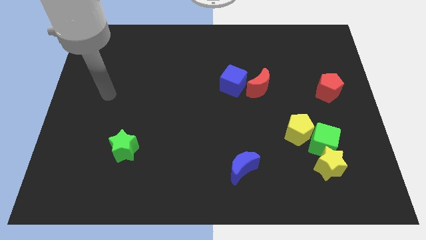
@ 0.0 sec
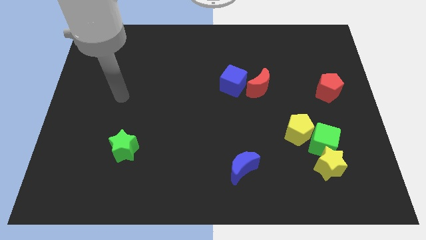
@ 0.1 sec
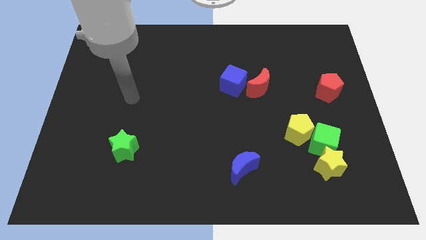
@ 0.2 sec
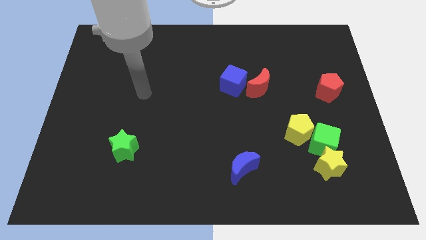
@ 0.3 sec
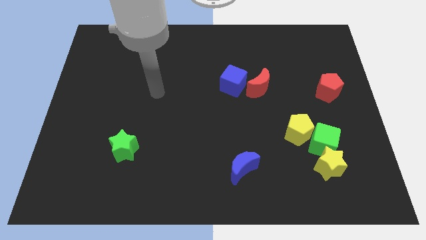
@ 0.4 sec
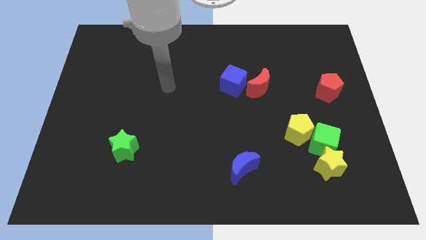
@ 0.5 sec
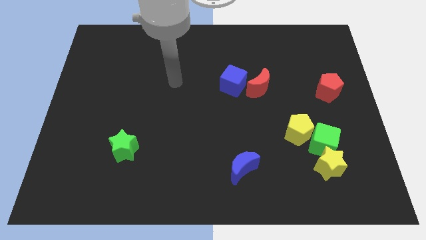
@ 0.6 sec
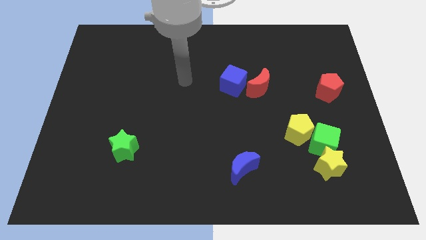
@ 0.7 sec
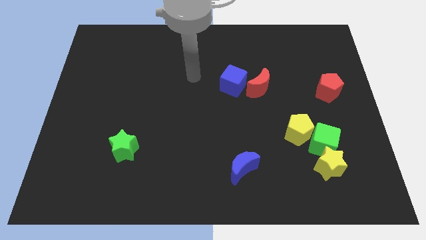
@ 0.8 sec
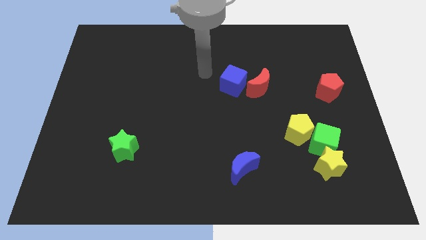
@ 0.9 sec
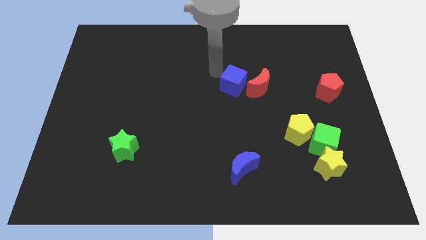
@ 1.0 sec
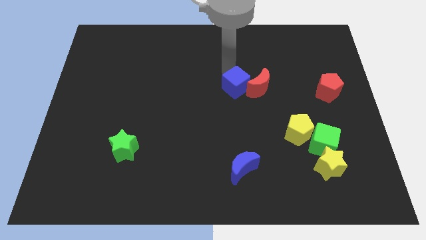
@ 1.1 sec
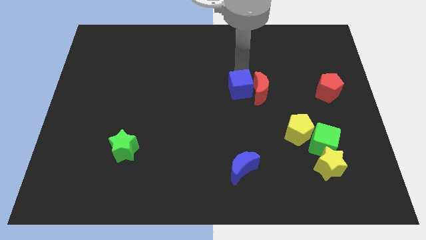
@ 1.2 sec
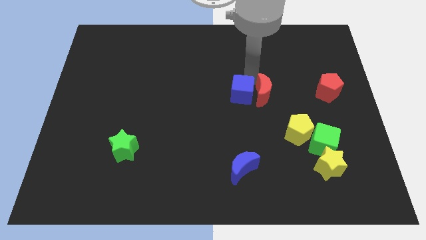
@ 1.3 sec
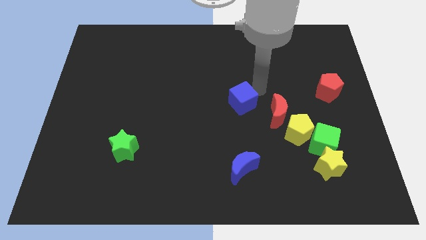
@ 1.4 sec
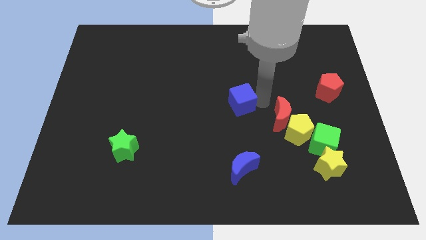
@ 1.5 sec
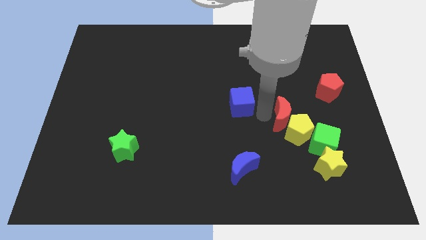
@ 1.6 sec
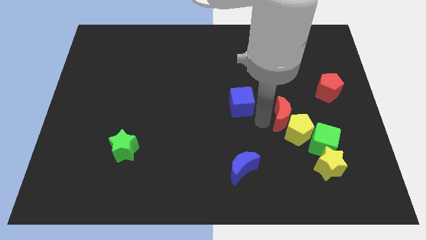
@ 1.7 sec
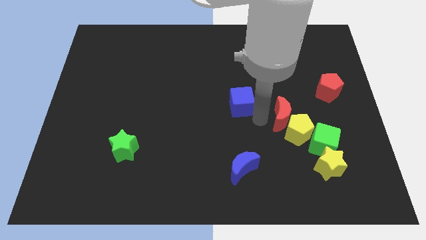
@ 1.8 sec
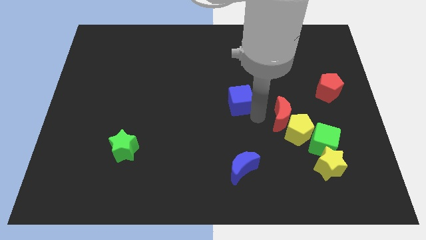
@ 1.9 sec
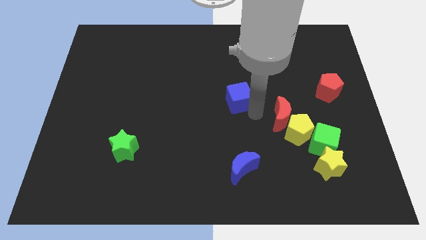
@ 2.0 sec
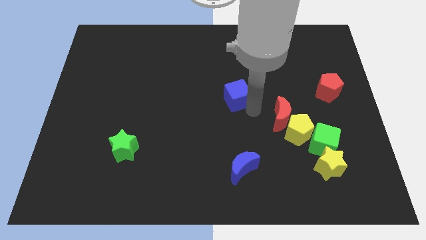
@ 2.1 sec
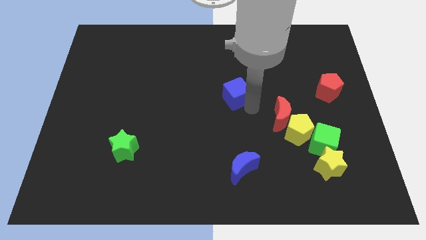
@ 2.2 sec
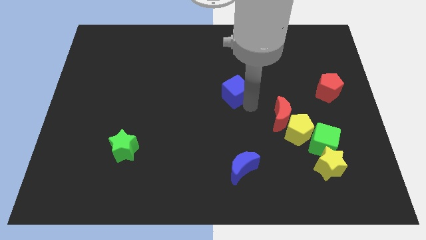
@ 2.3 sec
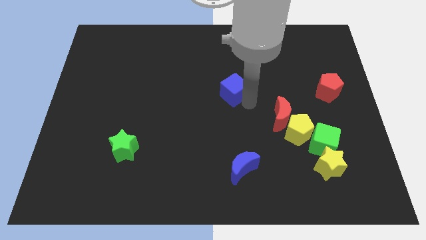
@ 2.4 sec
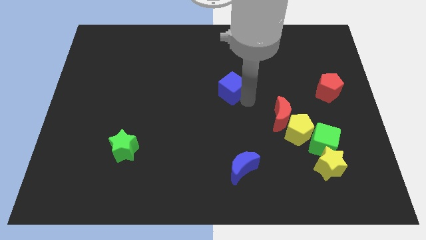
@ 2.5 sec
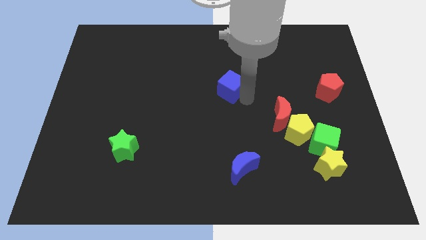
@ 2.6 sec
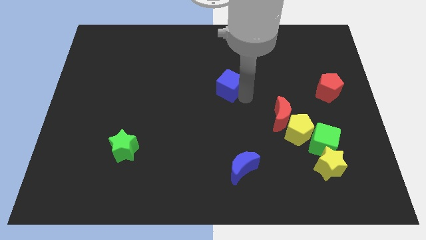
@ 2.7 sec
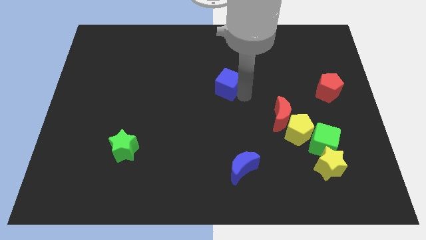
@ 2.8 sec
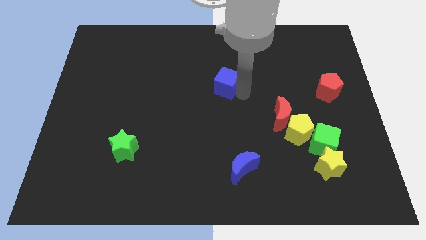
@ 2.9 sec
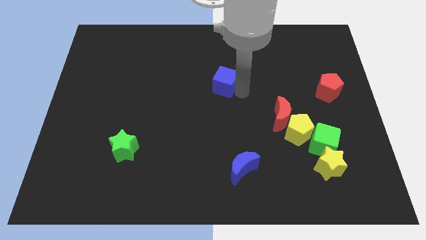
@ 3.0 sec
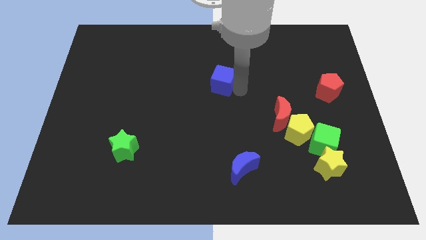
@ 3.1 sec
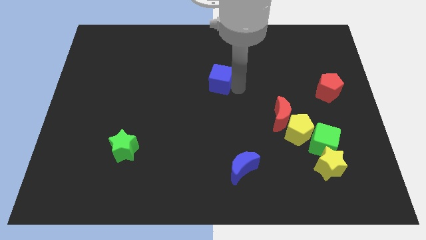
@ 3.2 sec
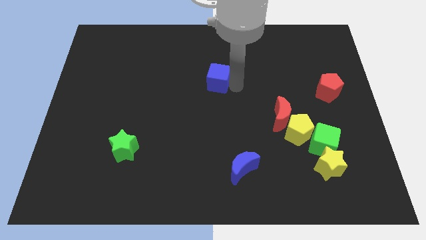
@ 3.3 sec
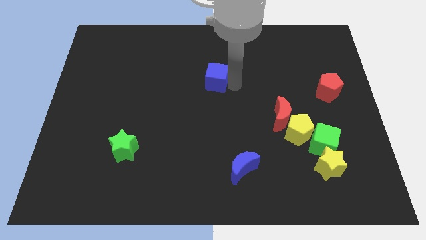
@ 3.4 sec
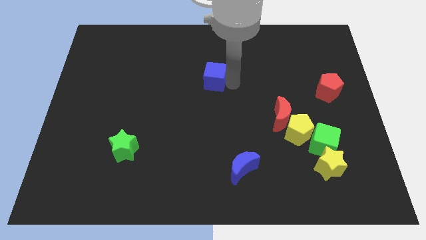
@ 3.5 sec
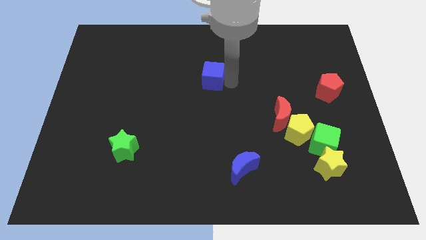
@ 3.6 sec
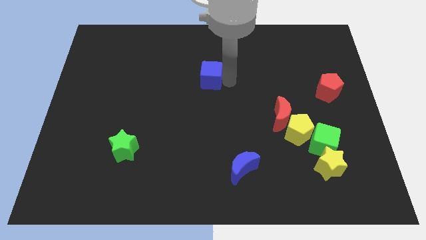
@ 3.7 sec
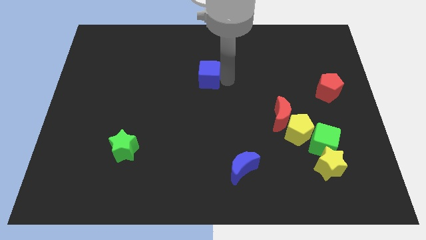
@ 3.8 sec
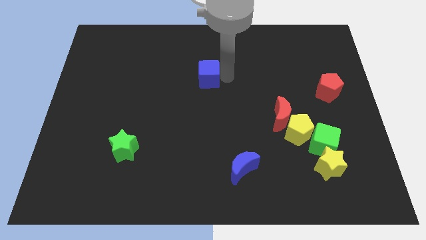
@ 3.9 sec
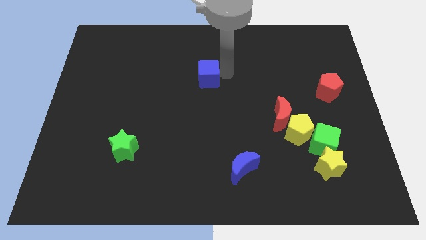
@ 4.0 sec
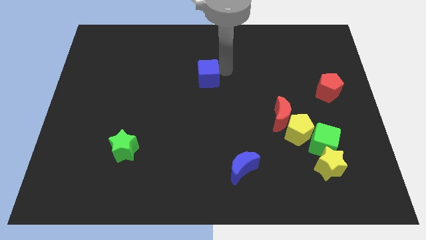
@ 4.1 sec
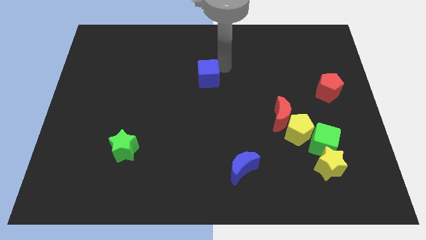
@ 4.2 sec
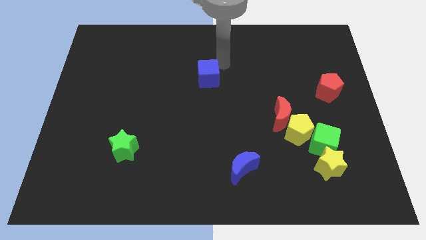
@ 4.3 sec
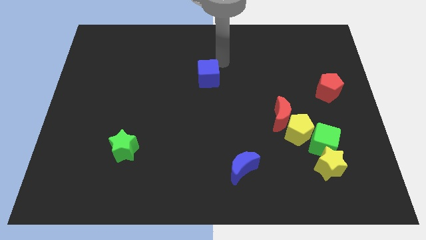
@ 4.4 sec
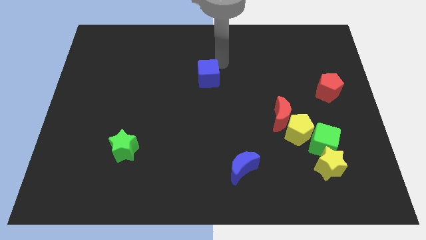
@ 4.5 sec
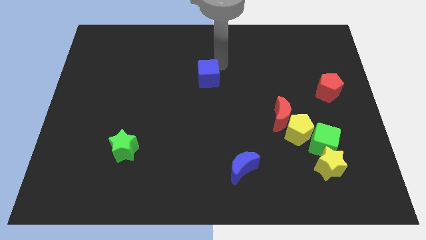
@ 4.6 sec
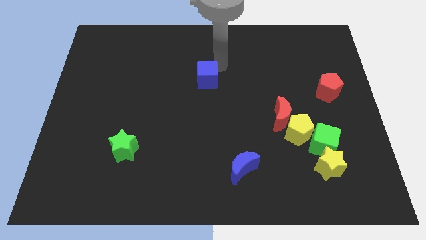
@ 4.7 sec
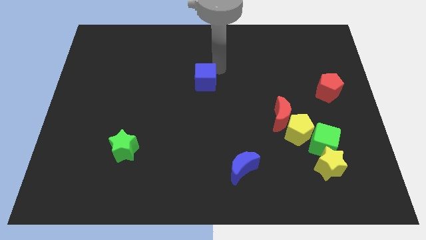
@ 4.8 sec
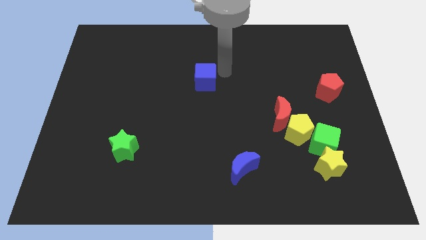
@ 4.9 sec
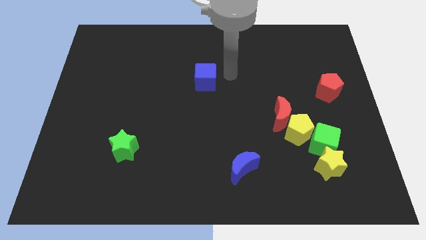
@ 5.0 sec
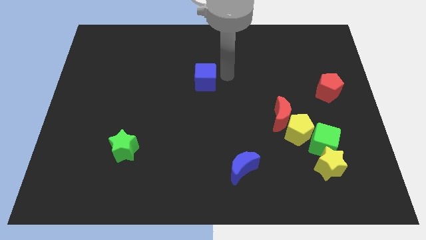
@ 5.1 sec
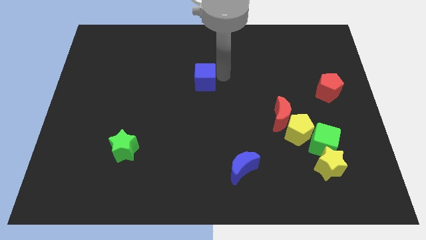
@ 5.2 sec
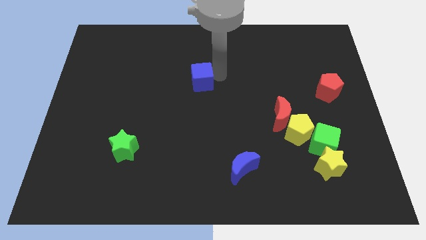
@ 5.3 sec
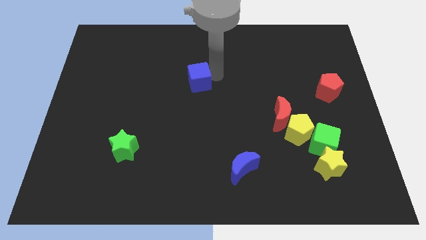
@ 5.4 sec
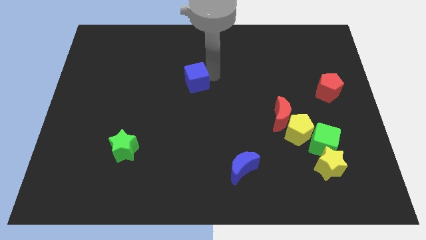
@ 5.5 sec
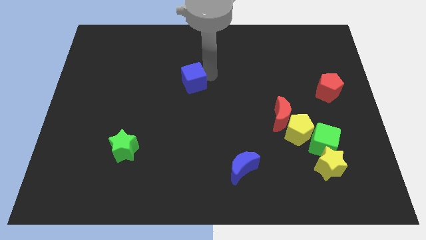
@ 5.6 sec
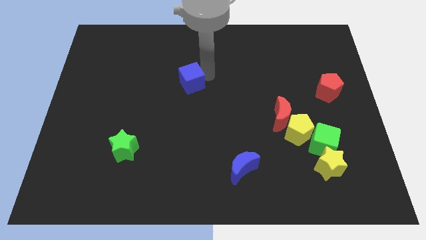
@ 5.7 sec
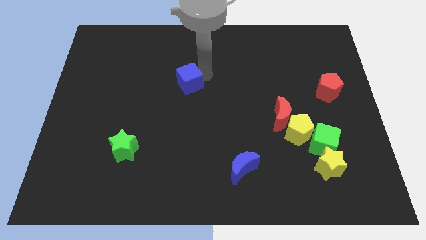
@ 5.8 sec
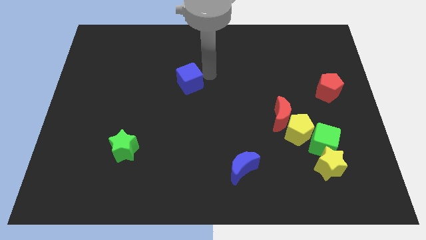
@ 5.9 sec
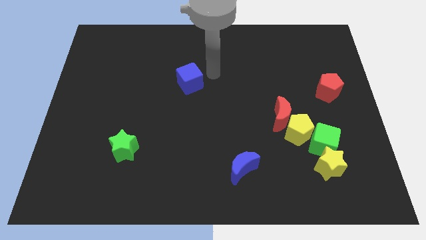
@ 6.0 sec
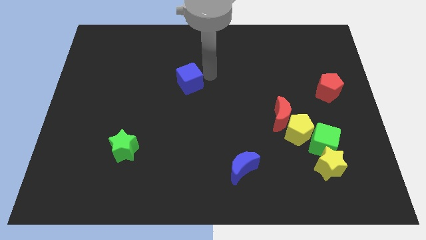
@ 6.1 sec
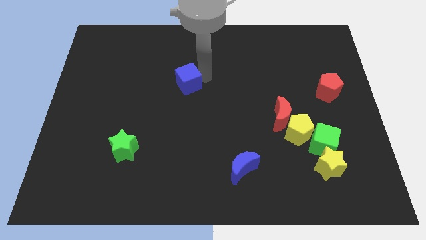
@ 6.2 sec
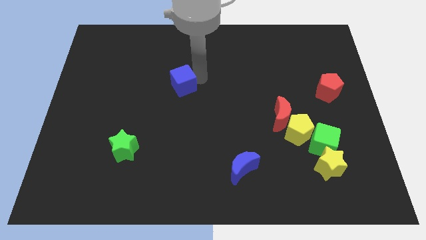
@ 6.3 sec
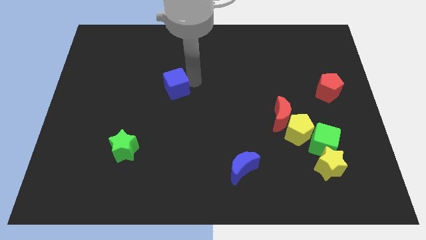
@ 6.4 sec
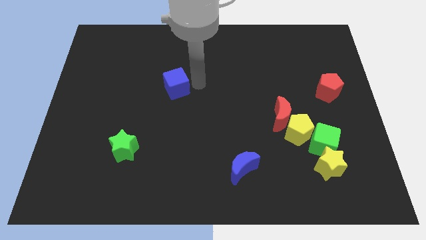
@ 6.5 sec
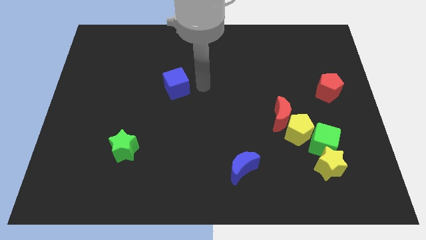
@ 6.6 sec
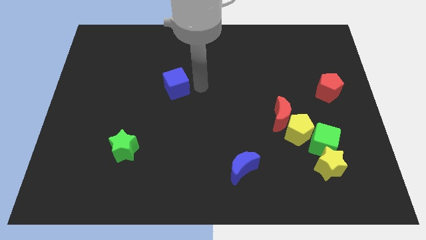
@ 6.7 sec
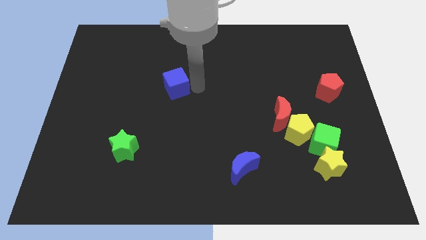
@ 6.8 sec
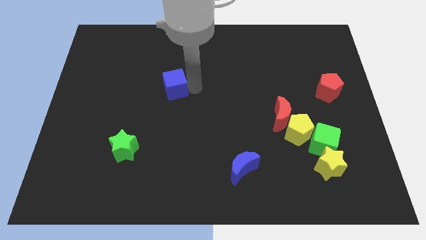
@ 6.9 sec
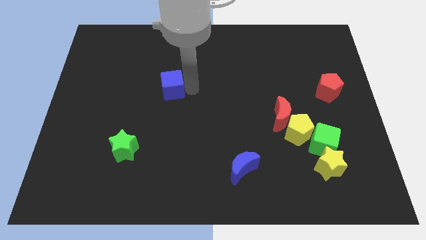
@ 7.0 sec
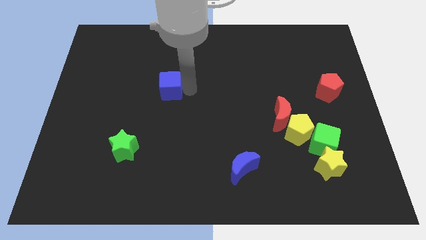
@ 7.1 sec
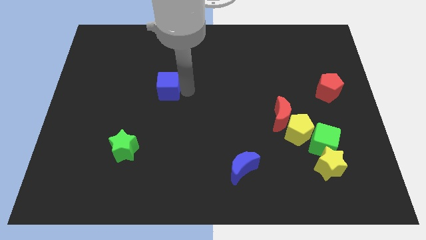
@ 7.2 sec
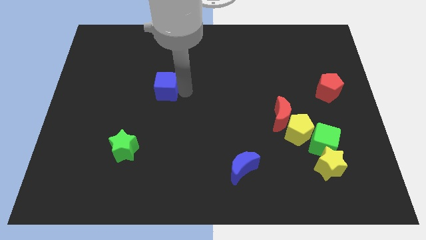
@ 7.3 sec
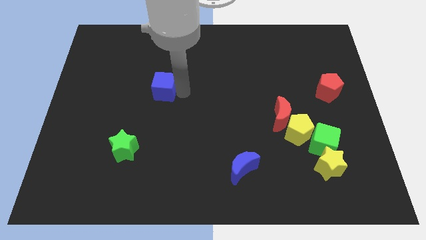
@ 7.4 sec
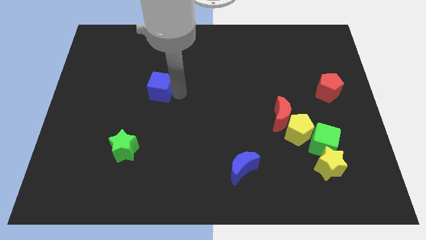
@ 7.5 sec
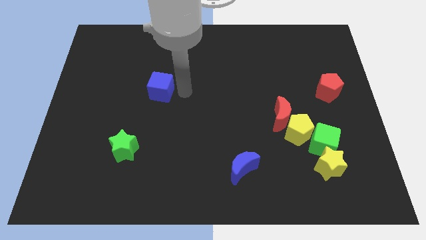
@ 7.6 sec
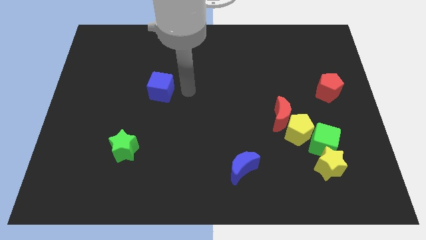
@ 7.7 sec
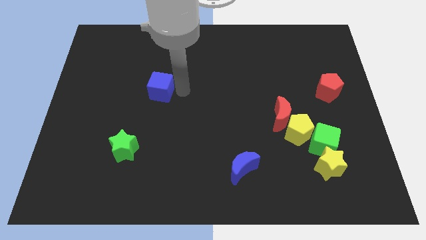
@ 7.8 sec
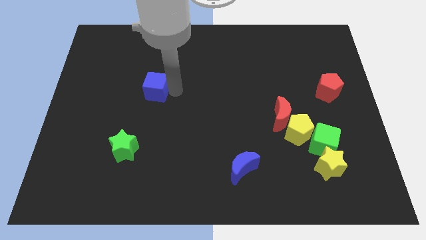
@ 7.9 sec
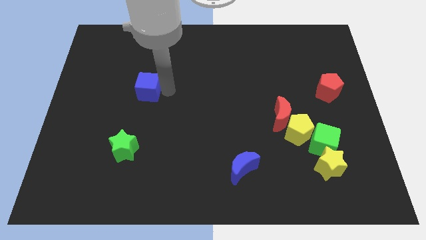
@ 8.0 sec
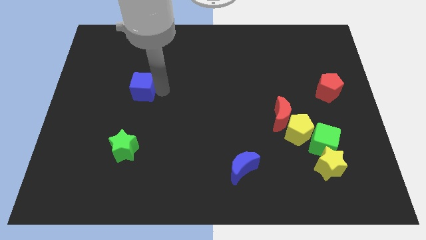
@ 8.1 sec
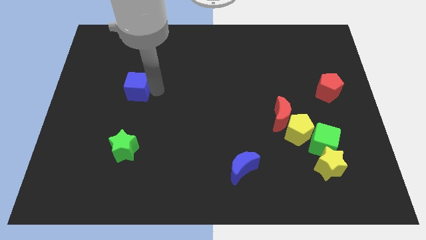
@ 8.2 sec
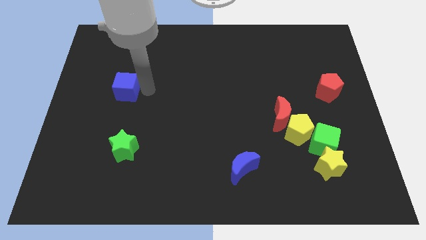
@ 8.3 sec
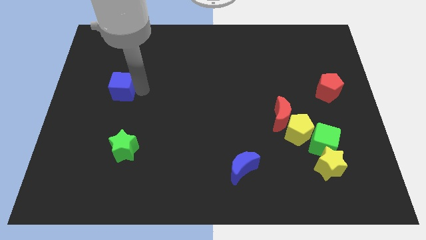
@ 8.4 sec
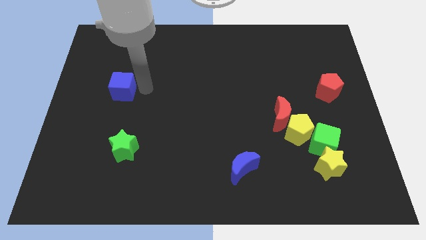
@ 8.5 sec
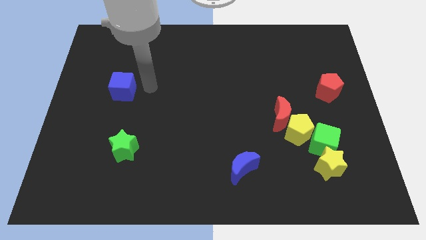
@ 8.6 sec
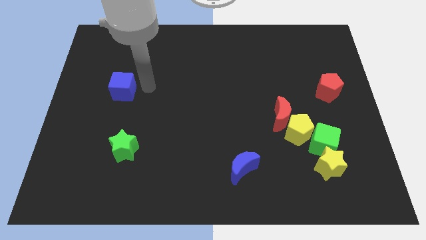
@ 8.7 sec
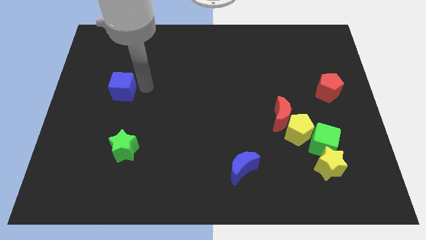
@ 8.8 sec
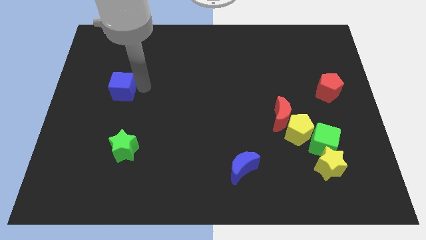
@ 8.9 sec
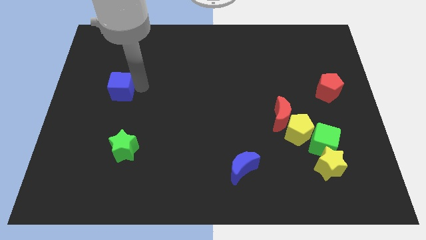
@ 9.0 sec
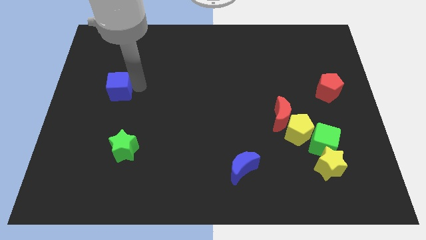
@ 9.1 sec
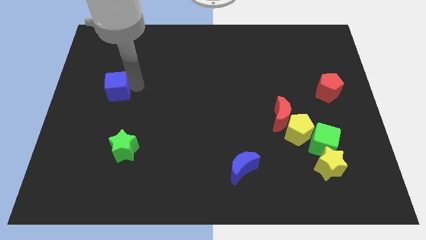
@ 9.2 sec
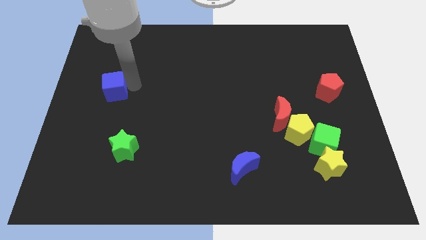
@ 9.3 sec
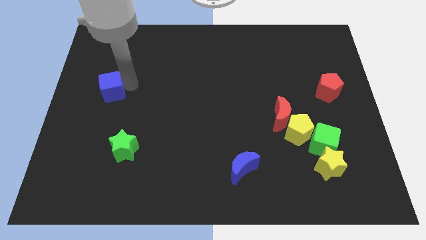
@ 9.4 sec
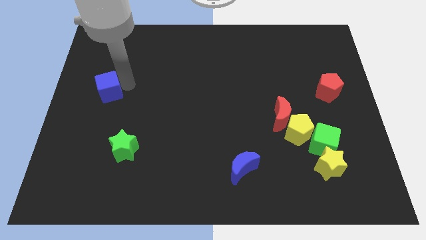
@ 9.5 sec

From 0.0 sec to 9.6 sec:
put the blue cube to the left side
